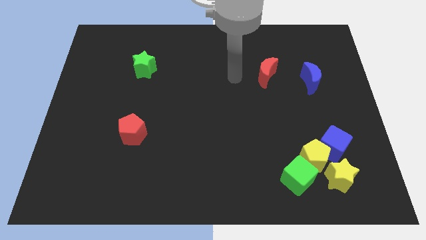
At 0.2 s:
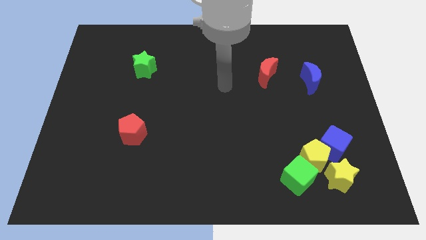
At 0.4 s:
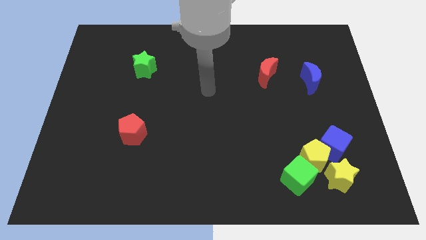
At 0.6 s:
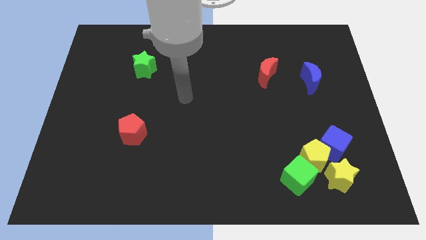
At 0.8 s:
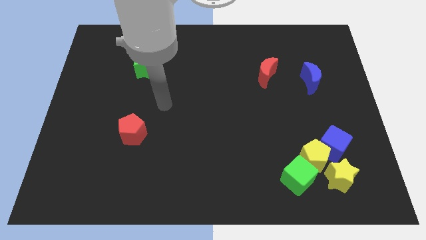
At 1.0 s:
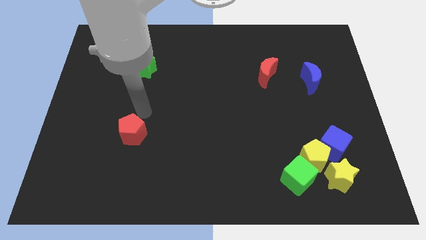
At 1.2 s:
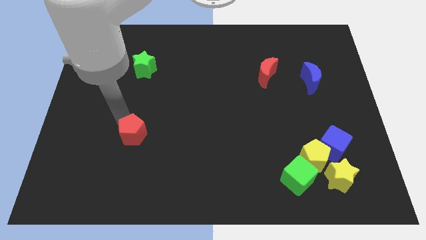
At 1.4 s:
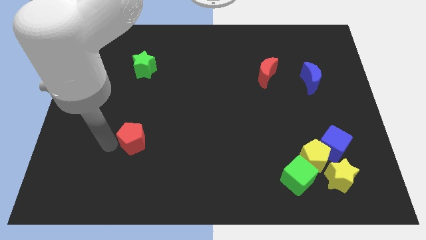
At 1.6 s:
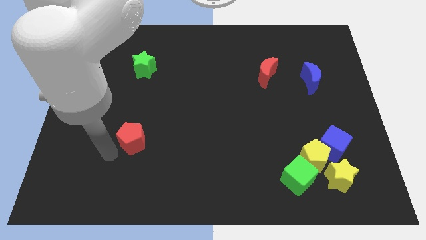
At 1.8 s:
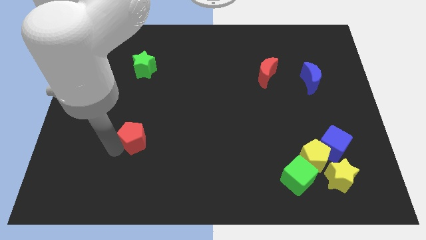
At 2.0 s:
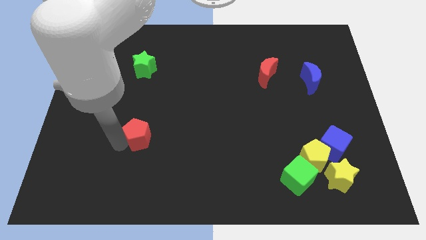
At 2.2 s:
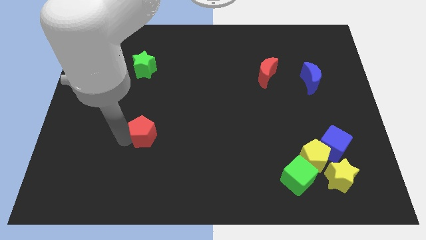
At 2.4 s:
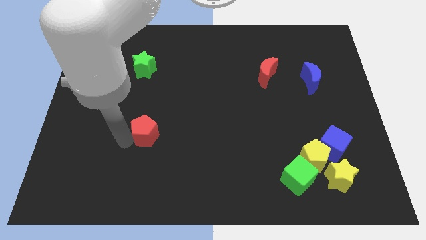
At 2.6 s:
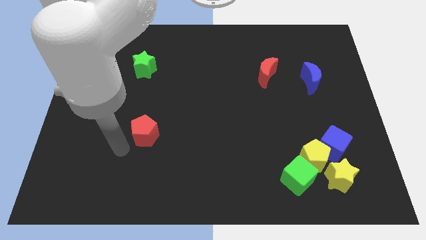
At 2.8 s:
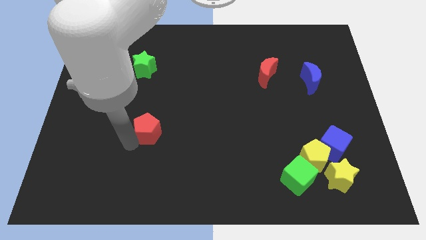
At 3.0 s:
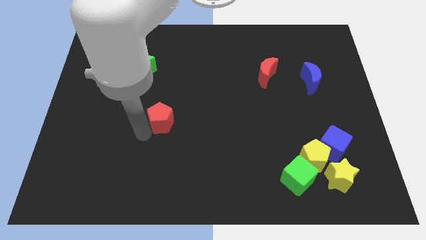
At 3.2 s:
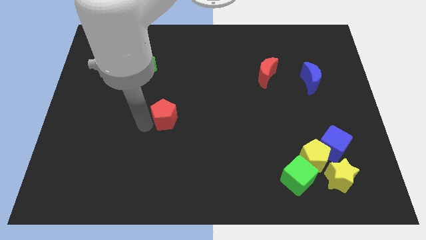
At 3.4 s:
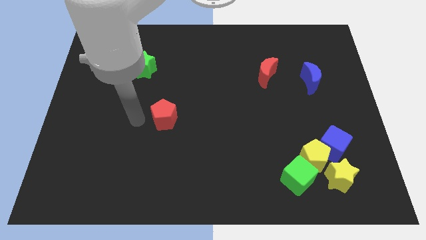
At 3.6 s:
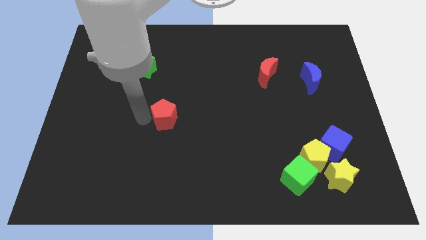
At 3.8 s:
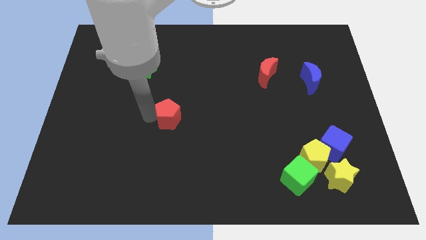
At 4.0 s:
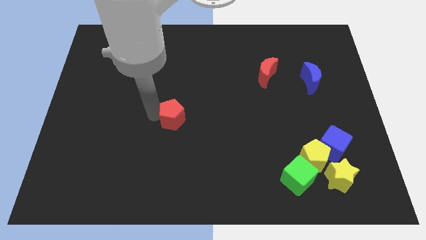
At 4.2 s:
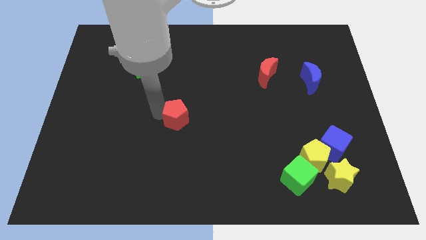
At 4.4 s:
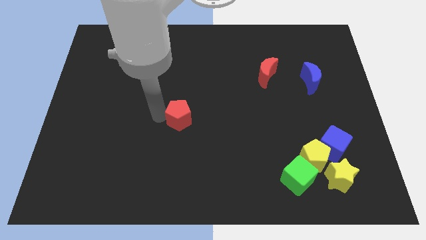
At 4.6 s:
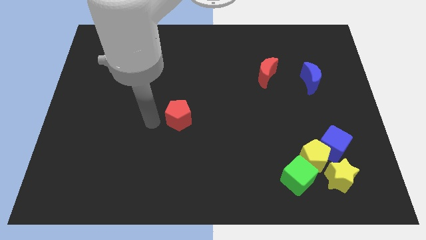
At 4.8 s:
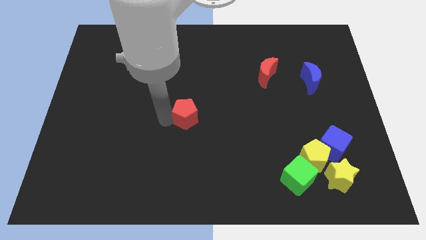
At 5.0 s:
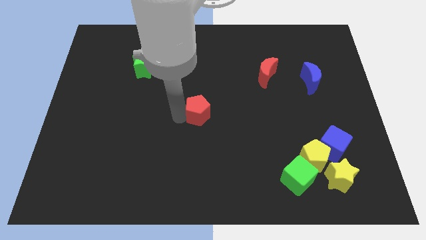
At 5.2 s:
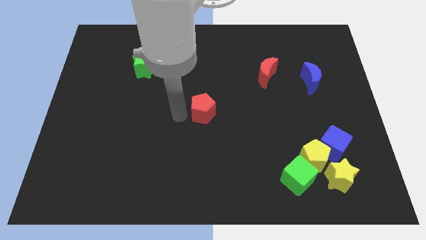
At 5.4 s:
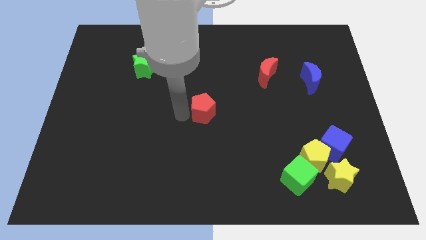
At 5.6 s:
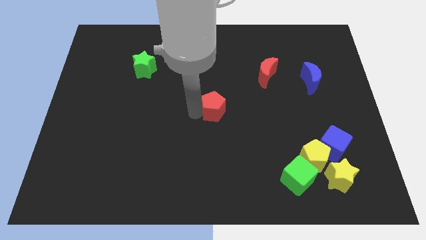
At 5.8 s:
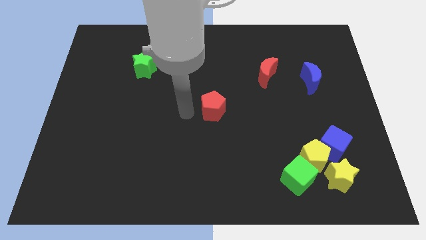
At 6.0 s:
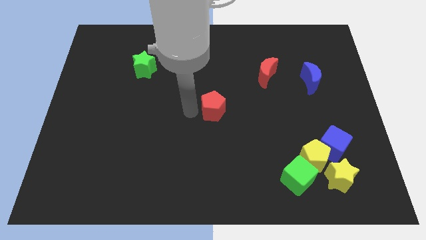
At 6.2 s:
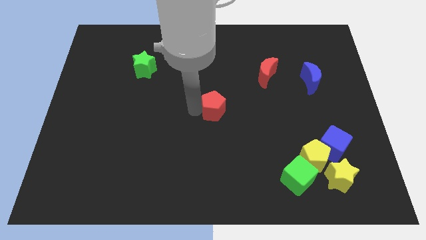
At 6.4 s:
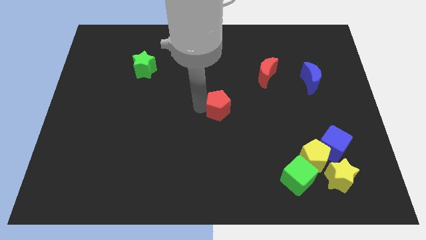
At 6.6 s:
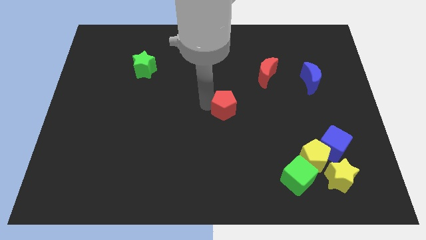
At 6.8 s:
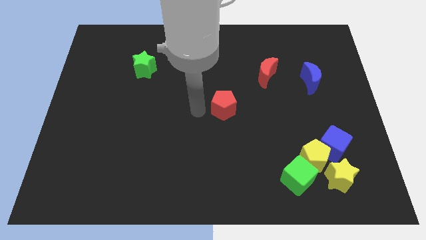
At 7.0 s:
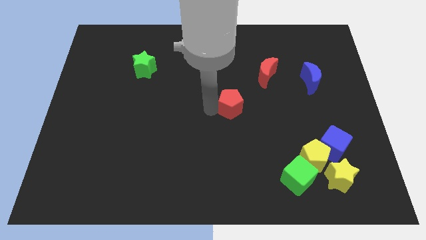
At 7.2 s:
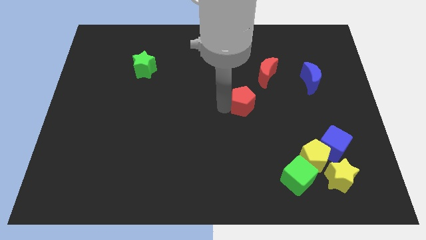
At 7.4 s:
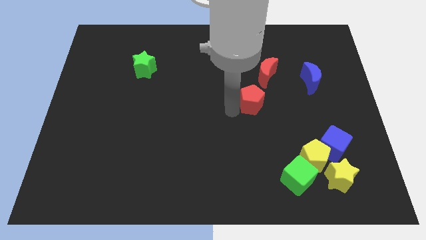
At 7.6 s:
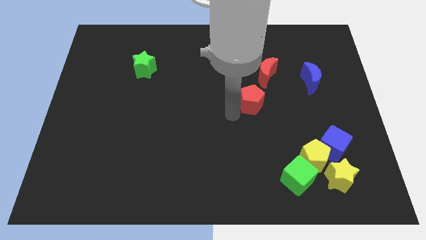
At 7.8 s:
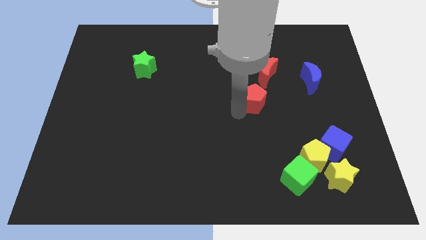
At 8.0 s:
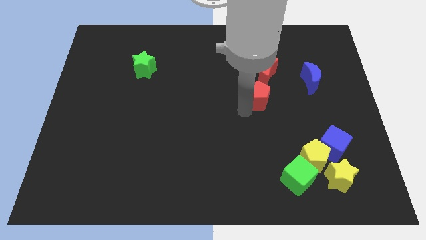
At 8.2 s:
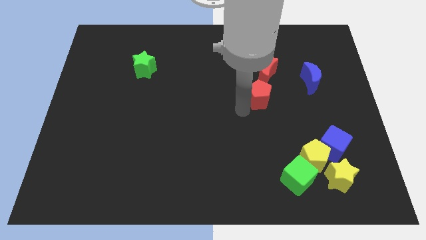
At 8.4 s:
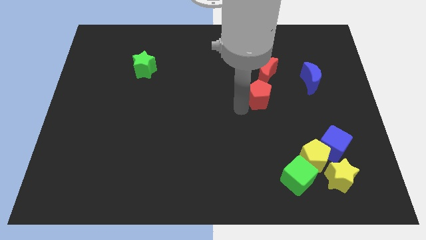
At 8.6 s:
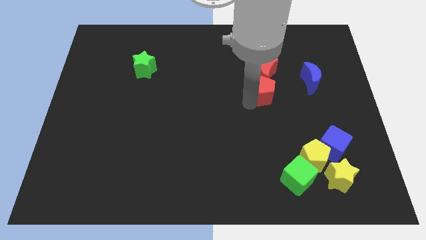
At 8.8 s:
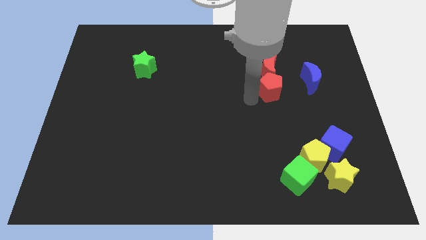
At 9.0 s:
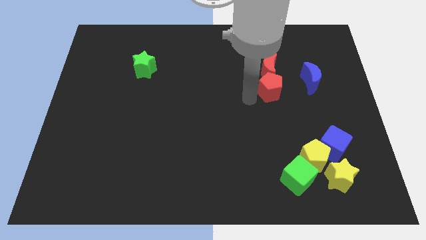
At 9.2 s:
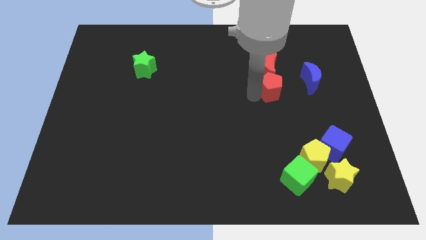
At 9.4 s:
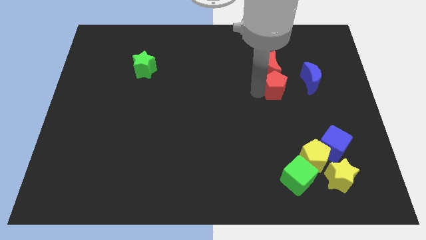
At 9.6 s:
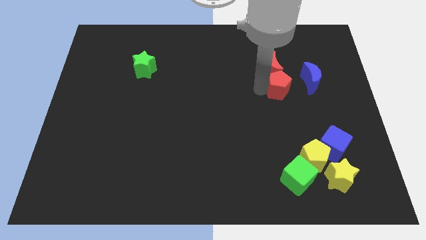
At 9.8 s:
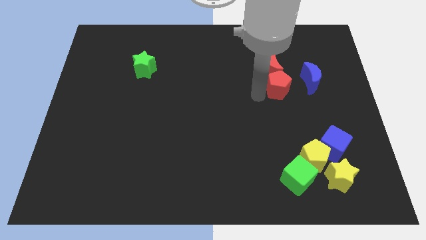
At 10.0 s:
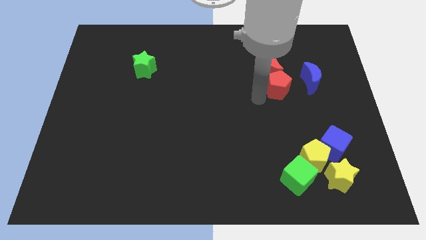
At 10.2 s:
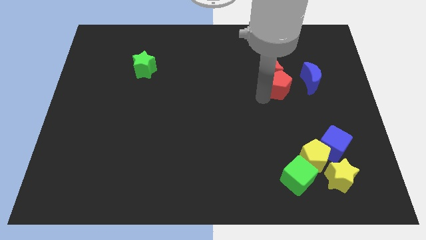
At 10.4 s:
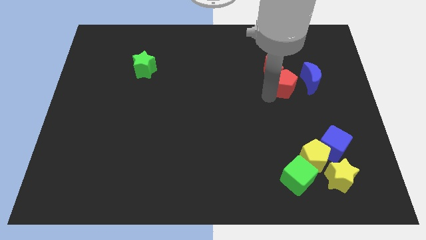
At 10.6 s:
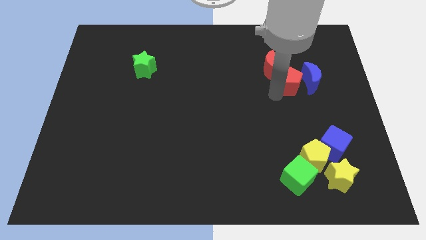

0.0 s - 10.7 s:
move the red pentagon to the right side of the red moon

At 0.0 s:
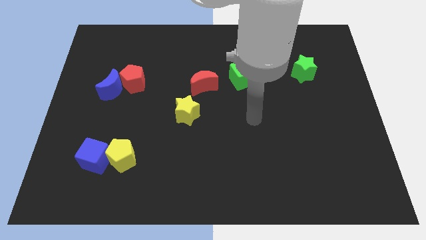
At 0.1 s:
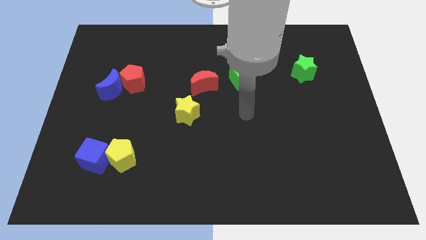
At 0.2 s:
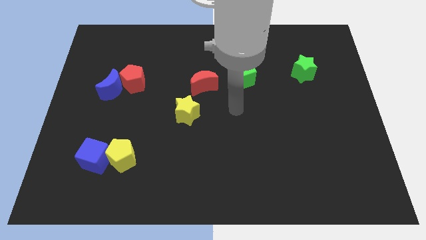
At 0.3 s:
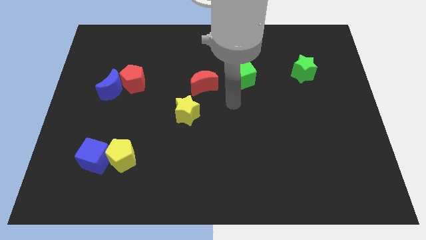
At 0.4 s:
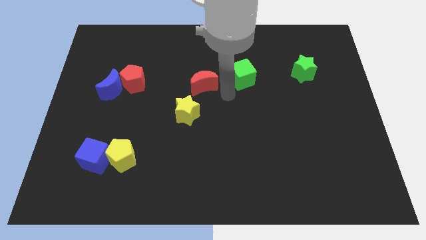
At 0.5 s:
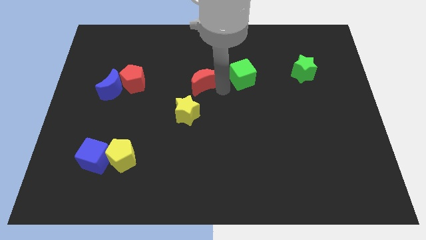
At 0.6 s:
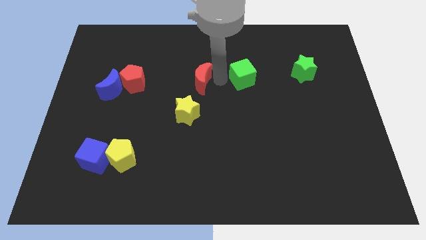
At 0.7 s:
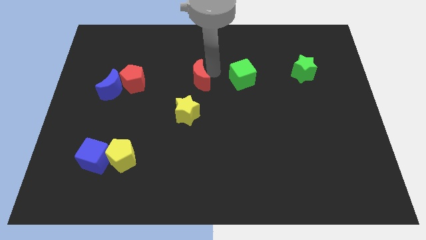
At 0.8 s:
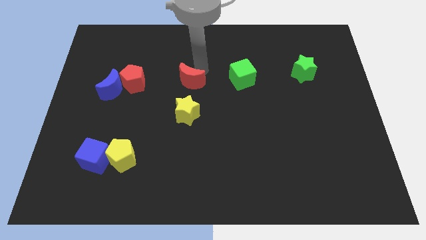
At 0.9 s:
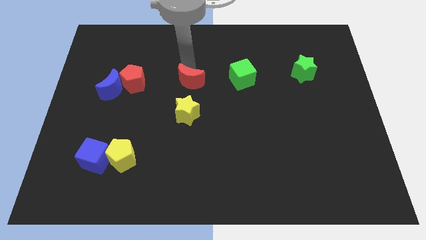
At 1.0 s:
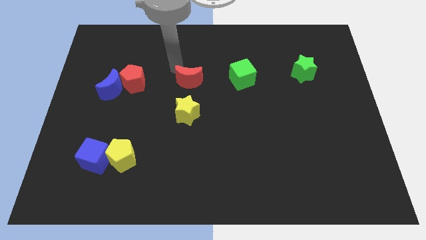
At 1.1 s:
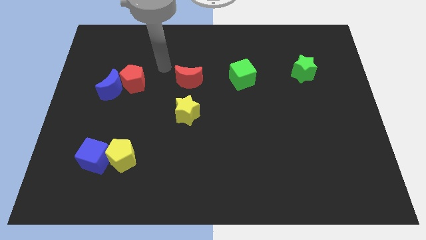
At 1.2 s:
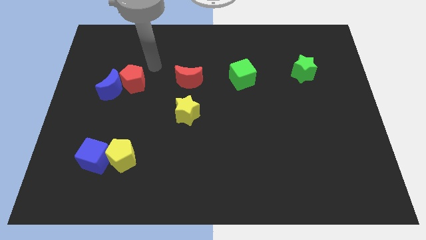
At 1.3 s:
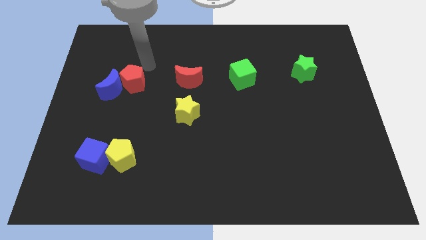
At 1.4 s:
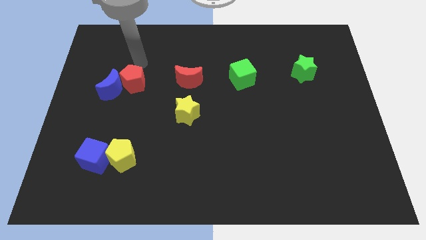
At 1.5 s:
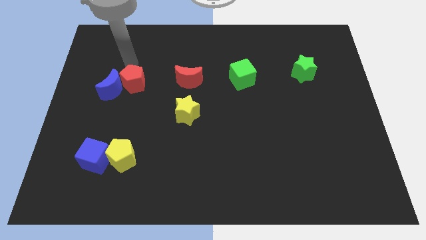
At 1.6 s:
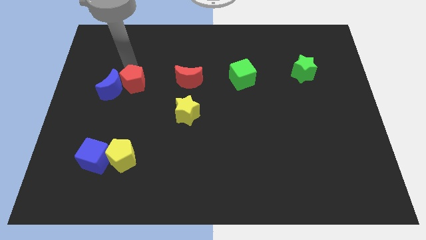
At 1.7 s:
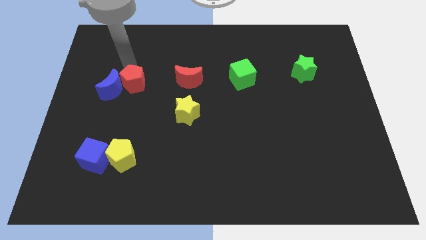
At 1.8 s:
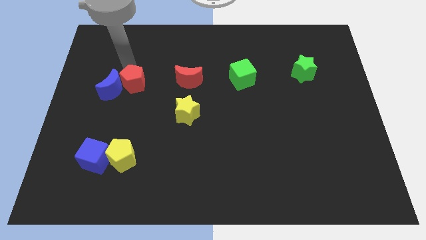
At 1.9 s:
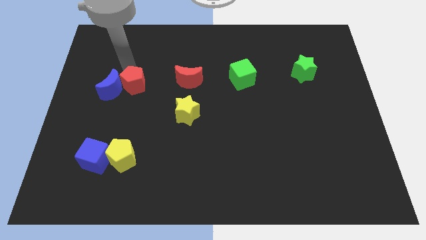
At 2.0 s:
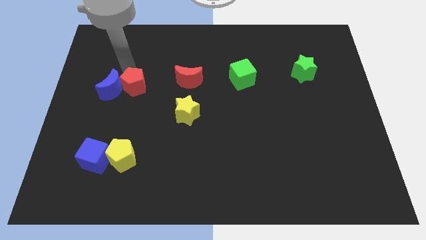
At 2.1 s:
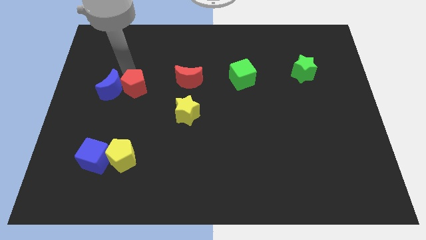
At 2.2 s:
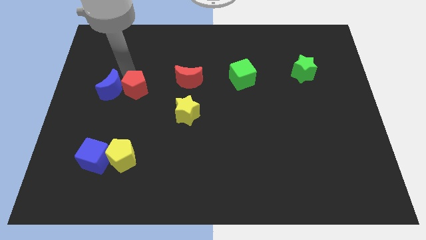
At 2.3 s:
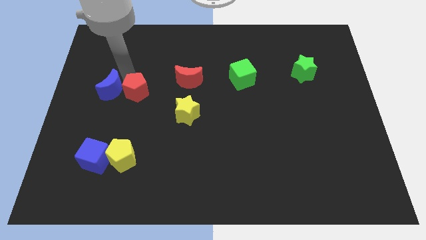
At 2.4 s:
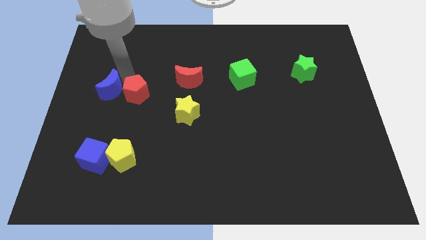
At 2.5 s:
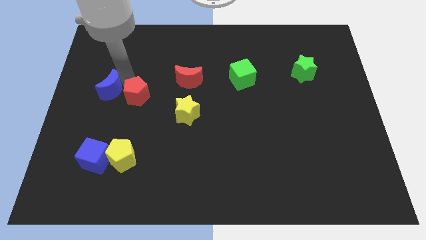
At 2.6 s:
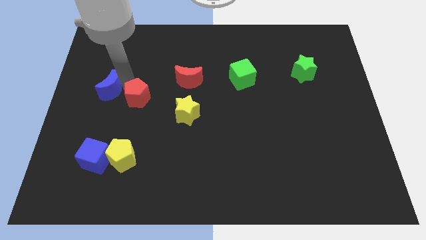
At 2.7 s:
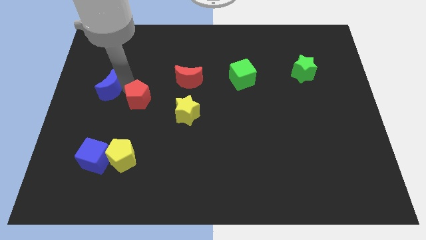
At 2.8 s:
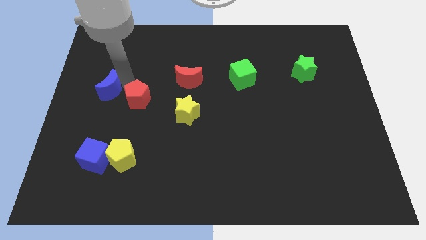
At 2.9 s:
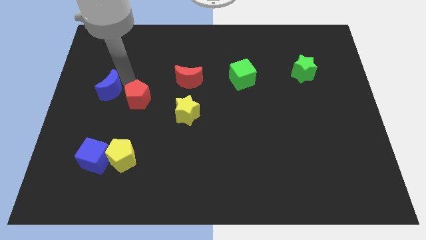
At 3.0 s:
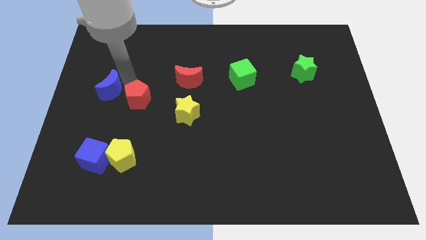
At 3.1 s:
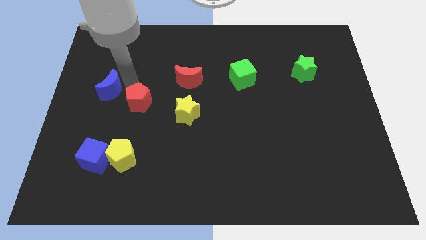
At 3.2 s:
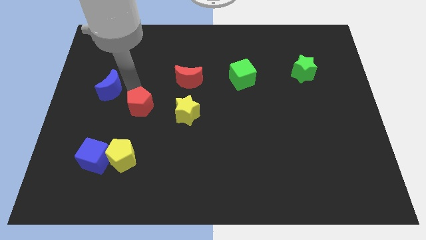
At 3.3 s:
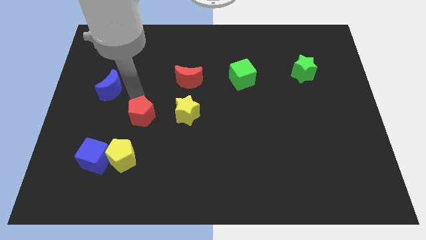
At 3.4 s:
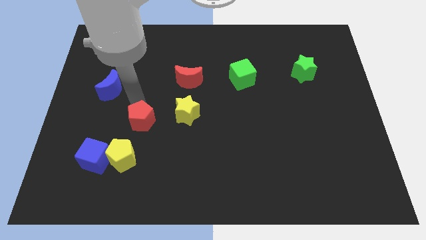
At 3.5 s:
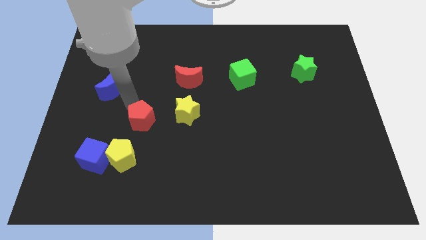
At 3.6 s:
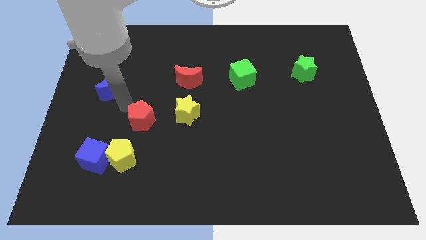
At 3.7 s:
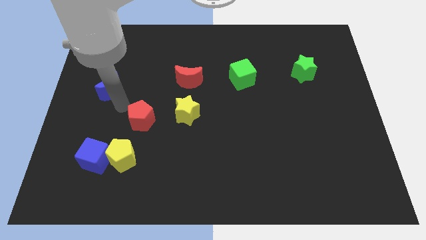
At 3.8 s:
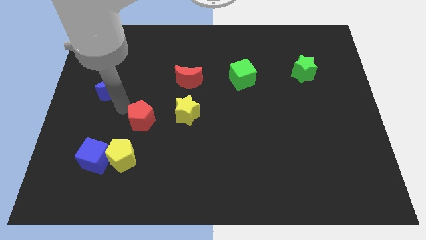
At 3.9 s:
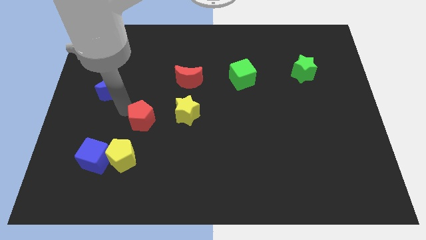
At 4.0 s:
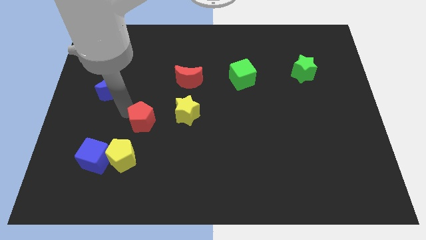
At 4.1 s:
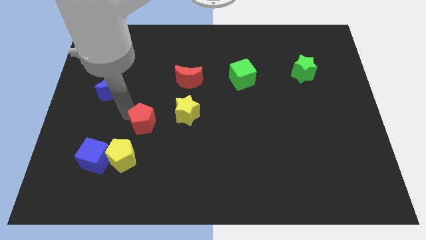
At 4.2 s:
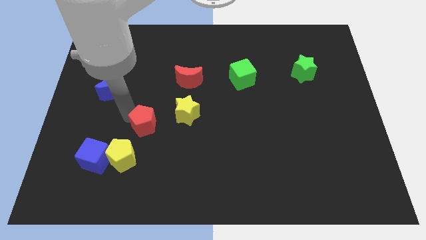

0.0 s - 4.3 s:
move the red pentagon to the bottom left of the yellow star
